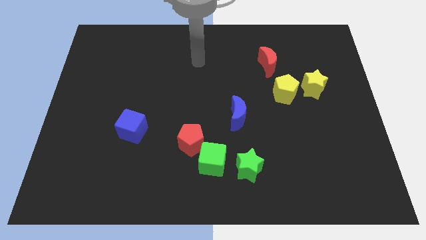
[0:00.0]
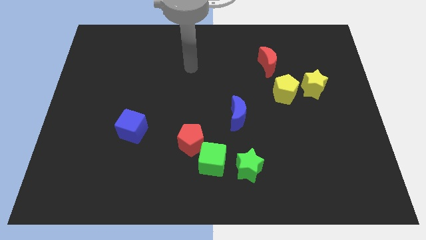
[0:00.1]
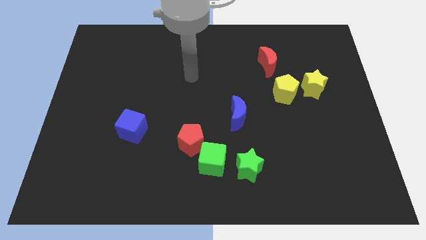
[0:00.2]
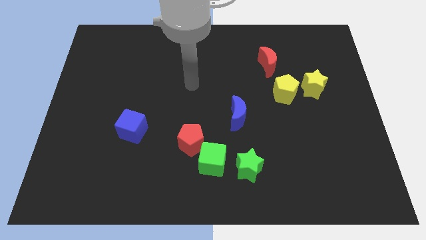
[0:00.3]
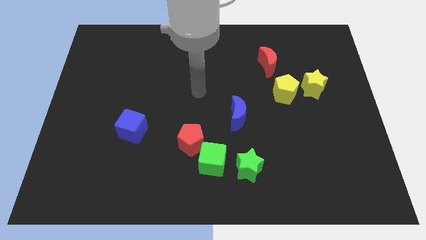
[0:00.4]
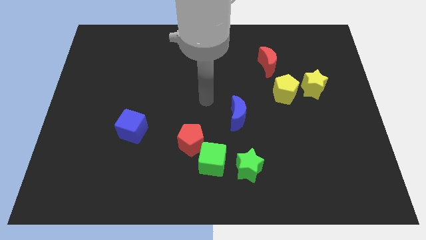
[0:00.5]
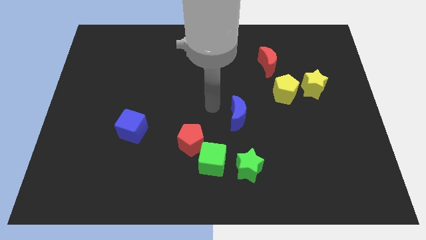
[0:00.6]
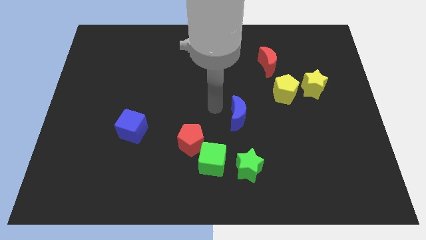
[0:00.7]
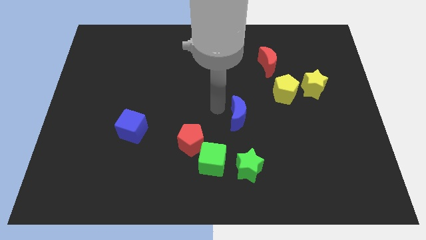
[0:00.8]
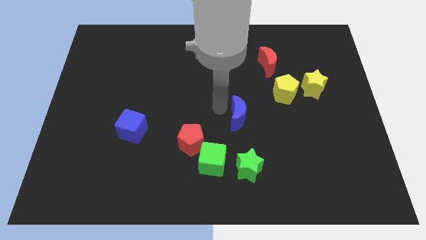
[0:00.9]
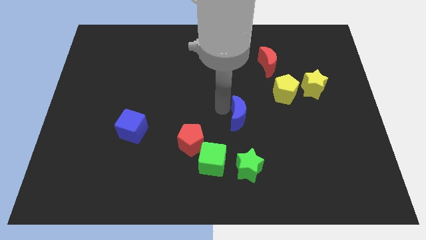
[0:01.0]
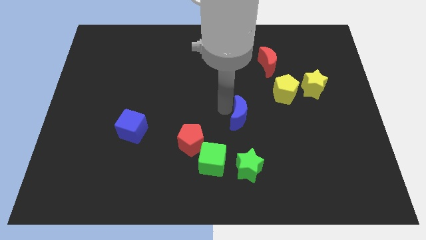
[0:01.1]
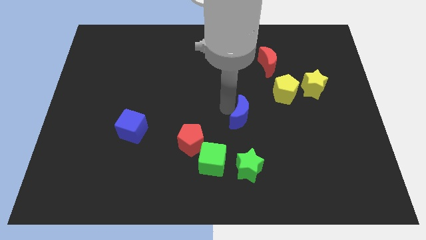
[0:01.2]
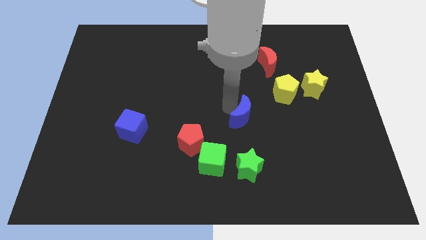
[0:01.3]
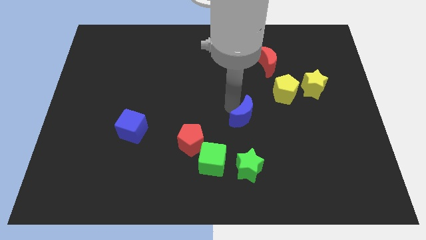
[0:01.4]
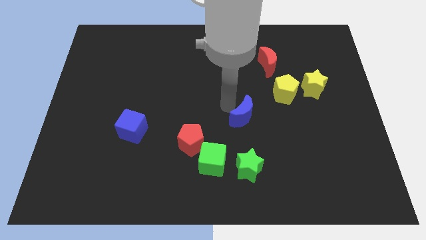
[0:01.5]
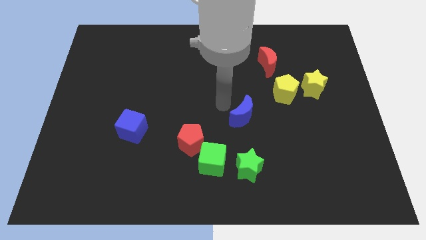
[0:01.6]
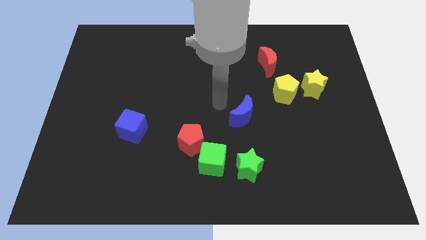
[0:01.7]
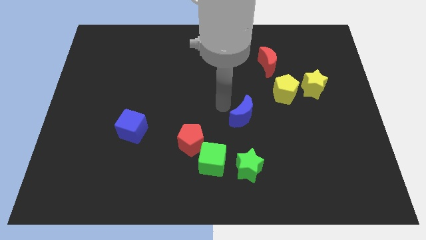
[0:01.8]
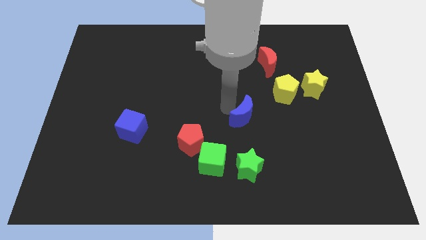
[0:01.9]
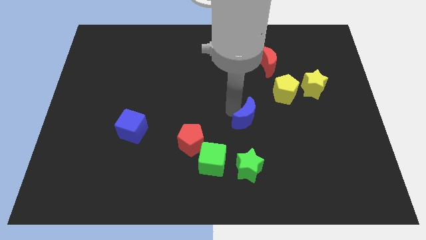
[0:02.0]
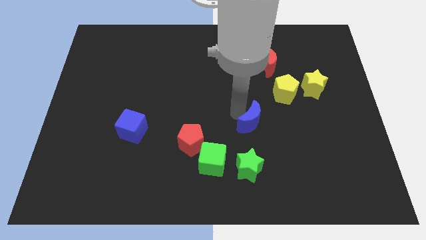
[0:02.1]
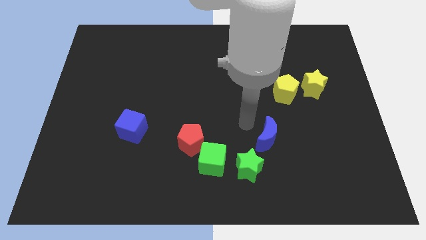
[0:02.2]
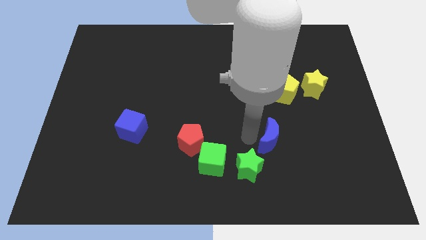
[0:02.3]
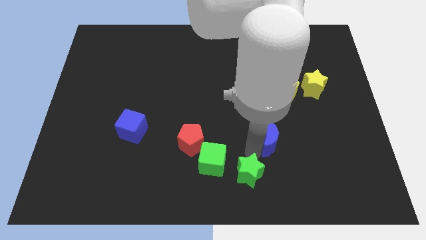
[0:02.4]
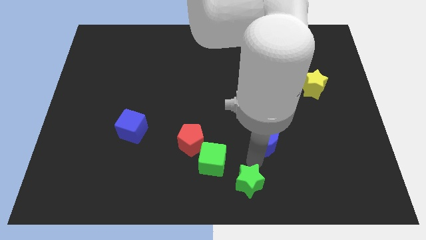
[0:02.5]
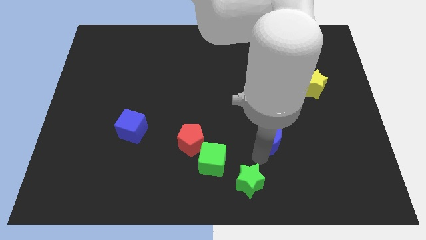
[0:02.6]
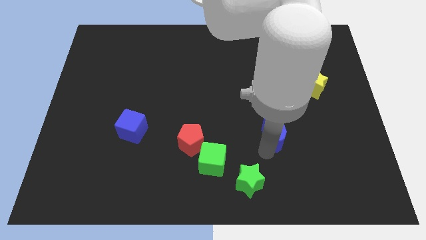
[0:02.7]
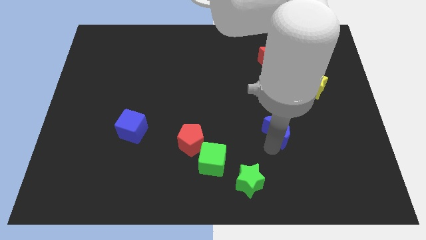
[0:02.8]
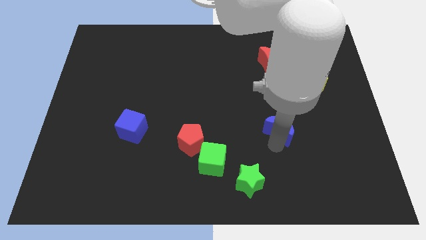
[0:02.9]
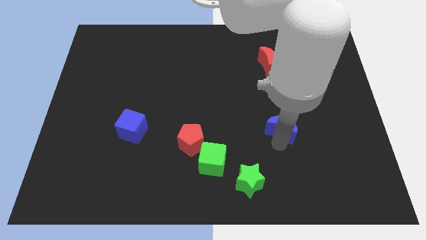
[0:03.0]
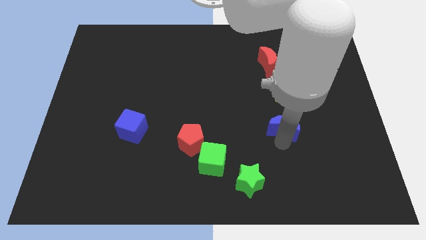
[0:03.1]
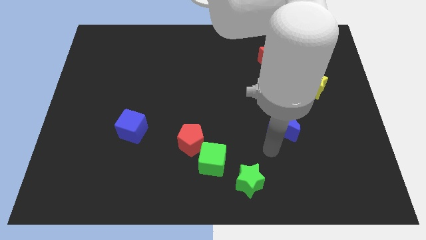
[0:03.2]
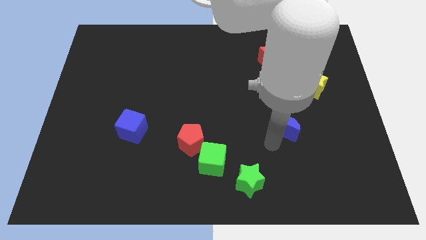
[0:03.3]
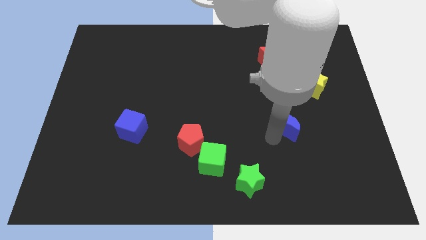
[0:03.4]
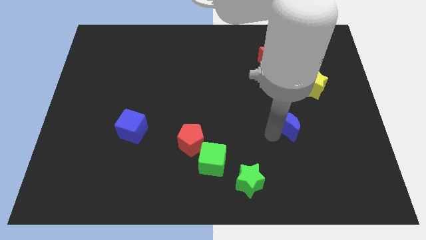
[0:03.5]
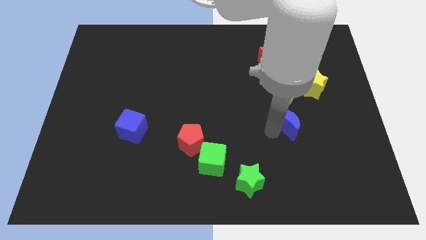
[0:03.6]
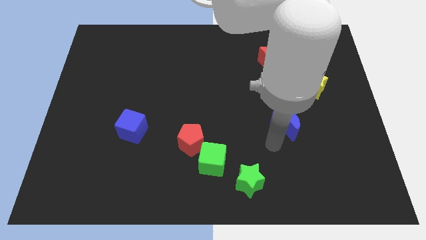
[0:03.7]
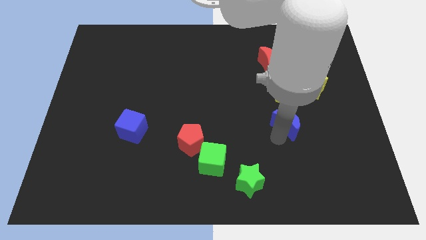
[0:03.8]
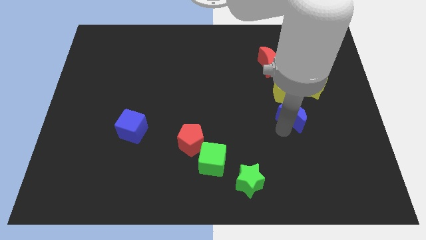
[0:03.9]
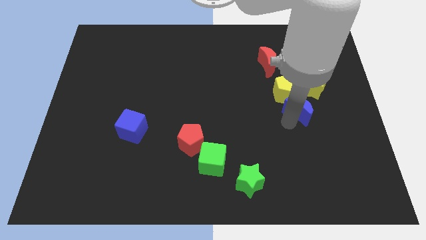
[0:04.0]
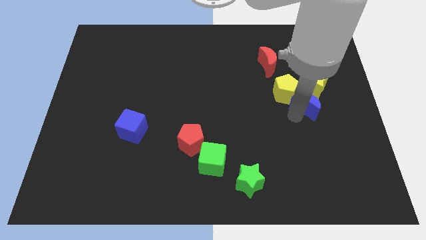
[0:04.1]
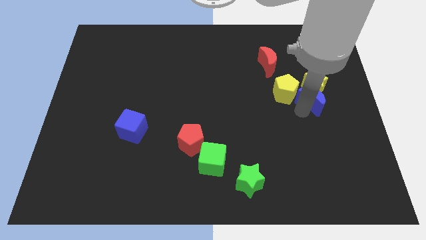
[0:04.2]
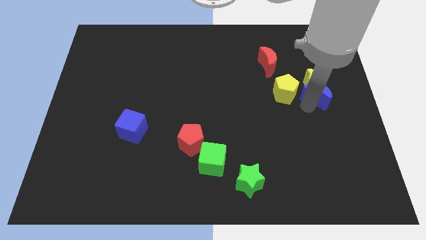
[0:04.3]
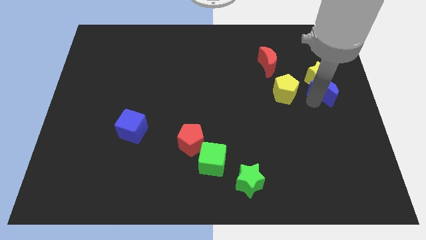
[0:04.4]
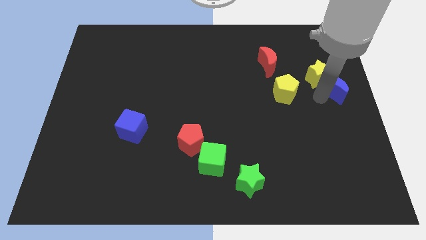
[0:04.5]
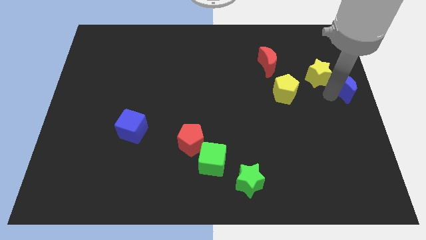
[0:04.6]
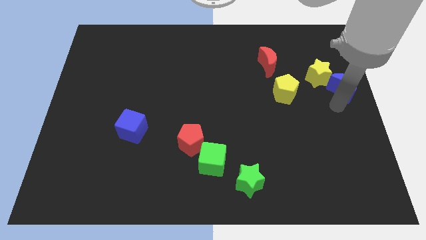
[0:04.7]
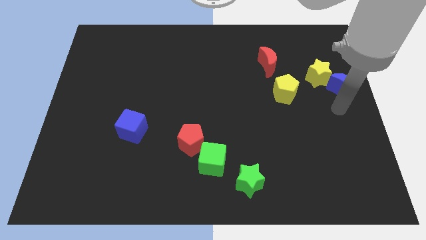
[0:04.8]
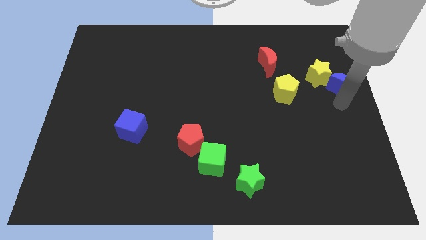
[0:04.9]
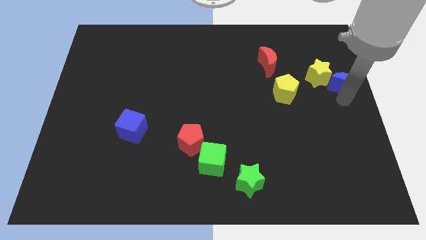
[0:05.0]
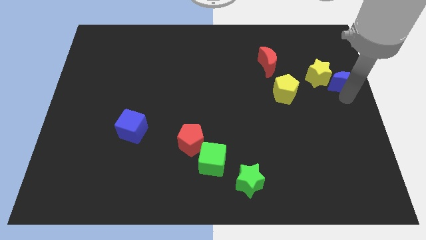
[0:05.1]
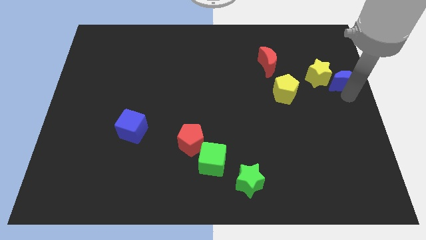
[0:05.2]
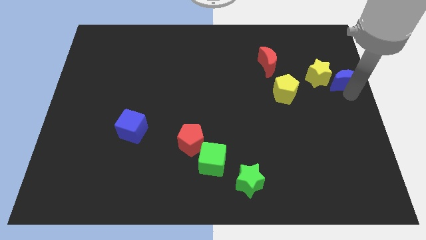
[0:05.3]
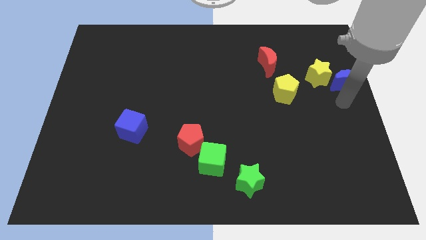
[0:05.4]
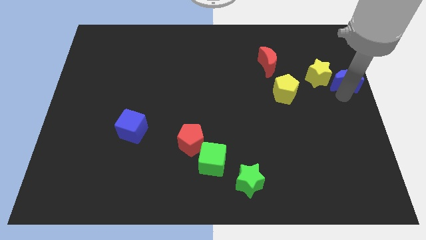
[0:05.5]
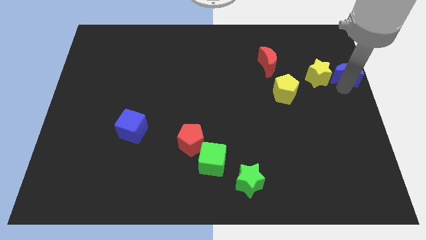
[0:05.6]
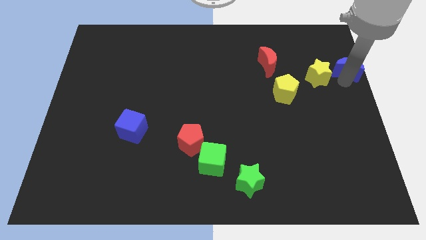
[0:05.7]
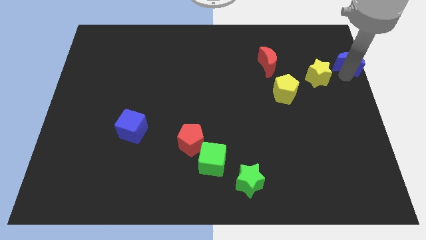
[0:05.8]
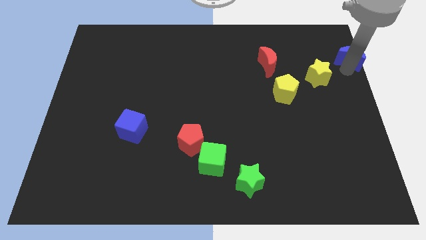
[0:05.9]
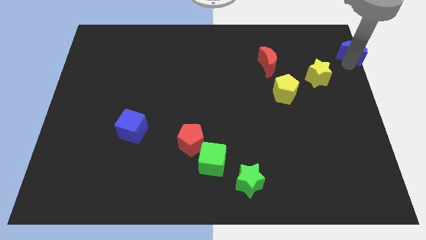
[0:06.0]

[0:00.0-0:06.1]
push the blue moon to the top right corner

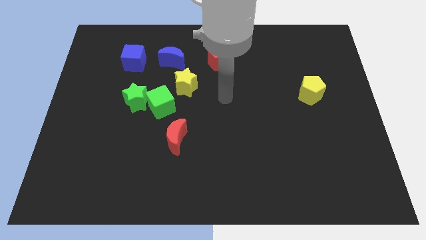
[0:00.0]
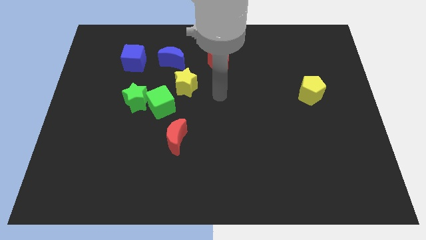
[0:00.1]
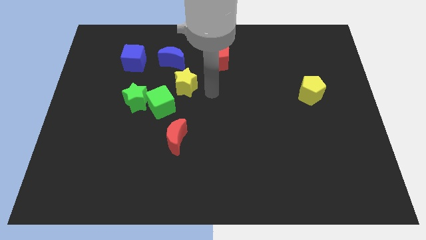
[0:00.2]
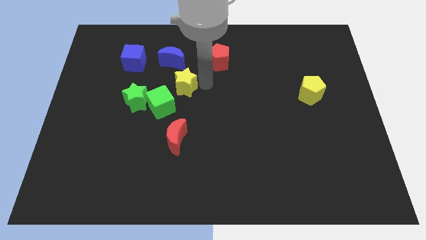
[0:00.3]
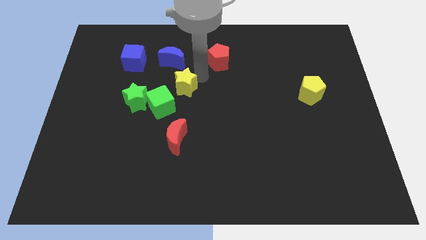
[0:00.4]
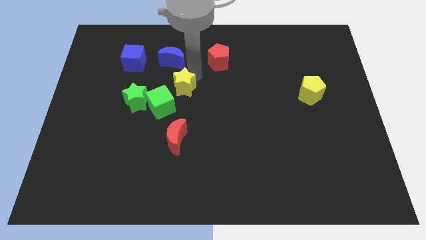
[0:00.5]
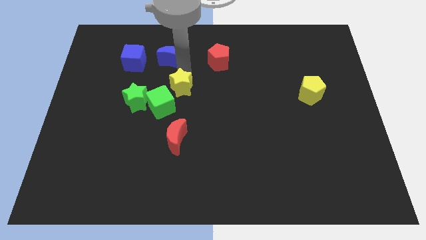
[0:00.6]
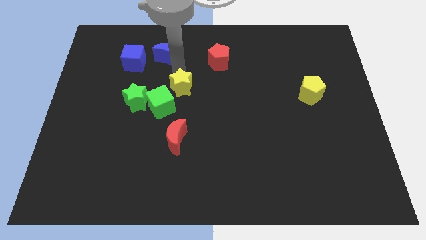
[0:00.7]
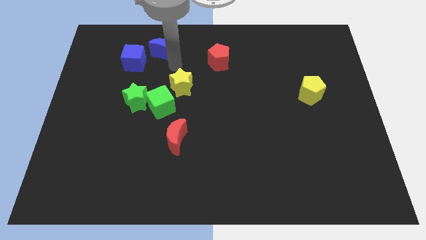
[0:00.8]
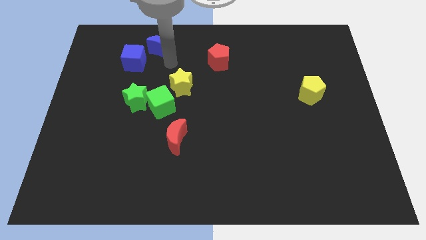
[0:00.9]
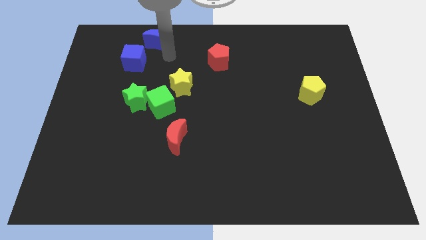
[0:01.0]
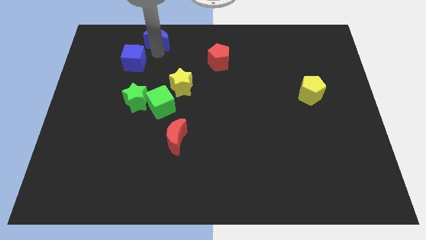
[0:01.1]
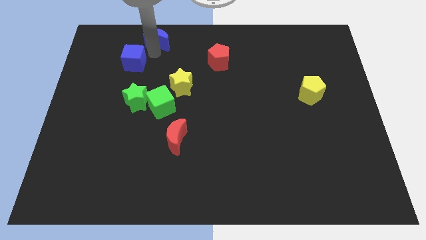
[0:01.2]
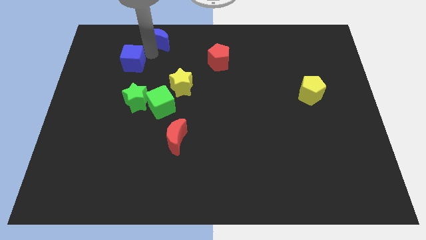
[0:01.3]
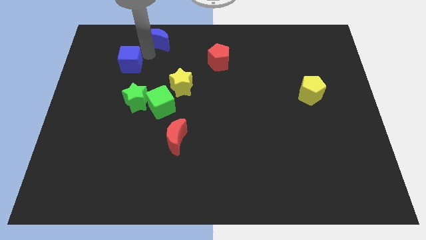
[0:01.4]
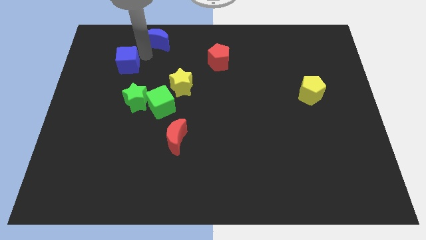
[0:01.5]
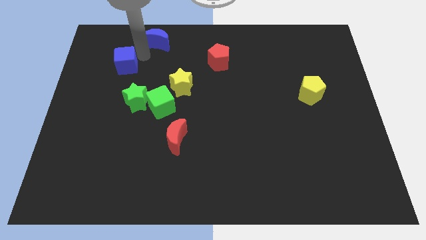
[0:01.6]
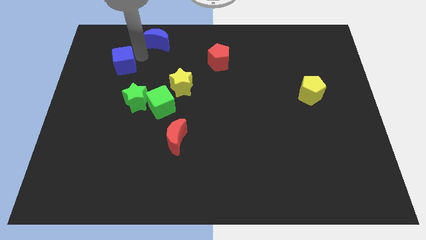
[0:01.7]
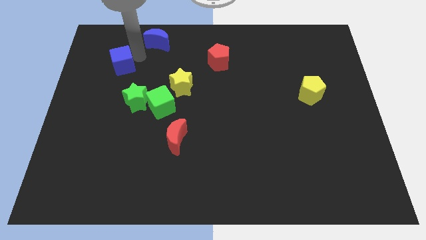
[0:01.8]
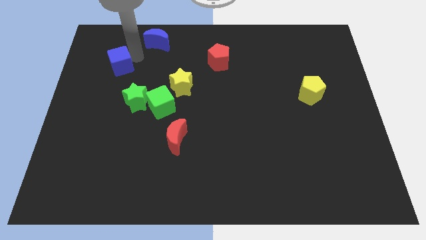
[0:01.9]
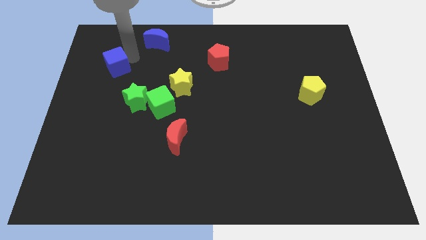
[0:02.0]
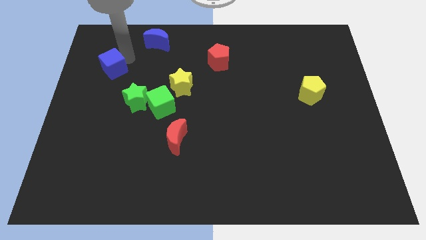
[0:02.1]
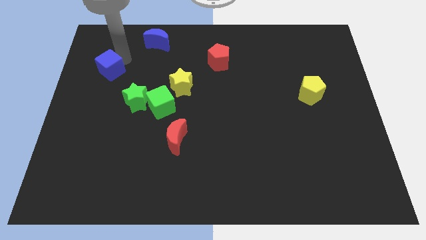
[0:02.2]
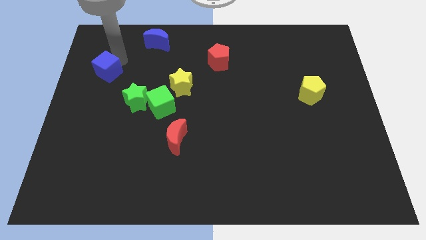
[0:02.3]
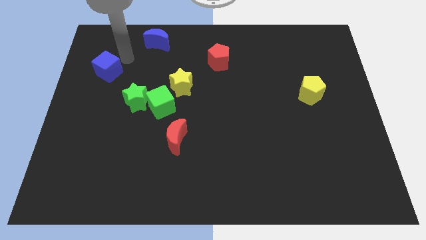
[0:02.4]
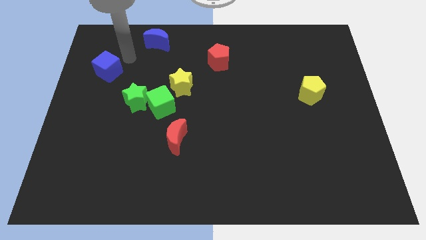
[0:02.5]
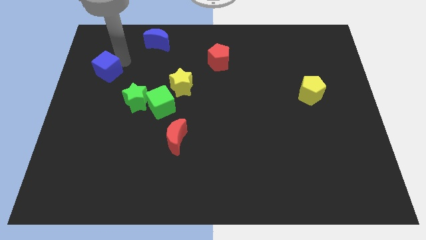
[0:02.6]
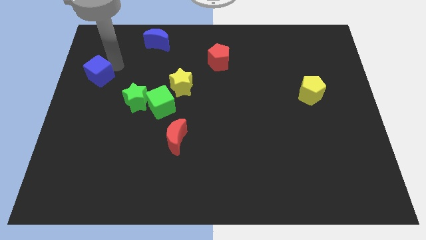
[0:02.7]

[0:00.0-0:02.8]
push the blue cube to the center left
